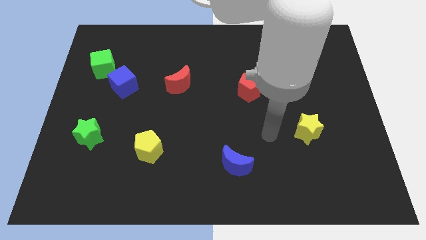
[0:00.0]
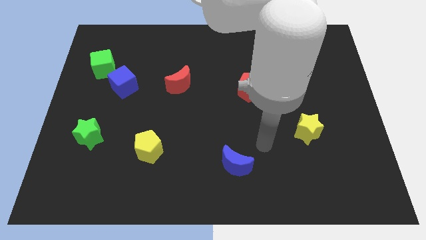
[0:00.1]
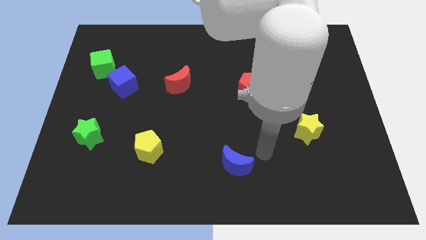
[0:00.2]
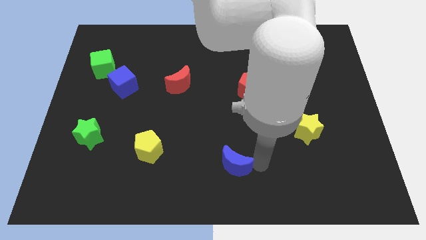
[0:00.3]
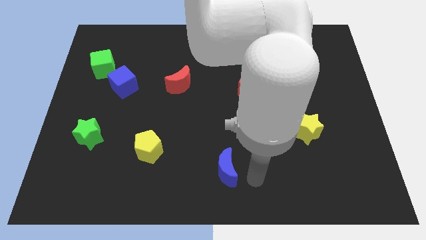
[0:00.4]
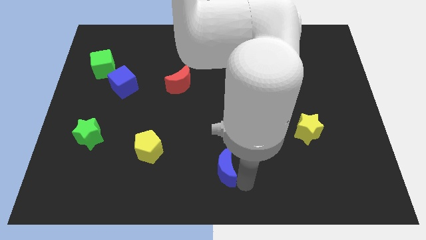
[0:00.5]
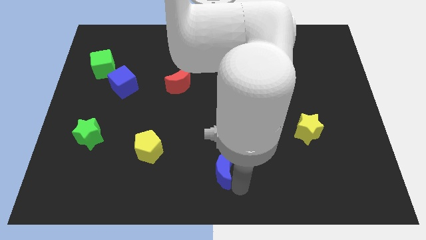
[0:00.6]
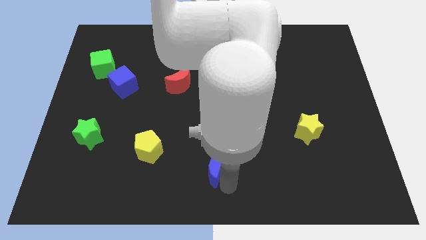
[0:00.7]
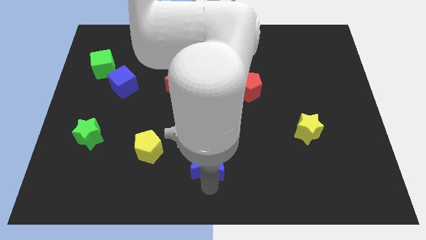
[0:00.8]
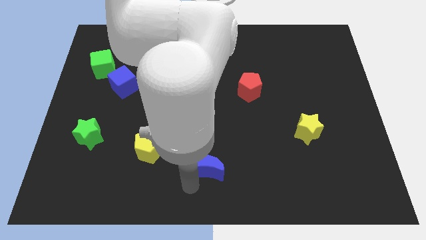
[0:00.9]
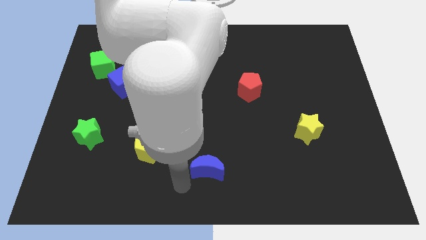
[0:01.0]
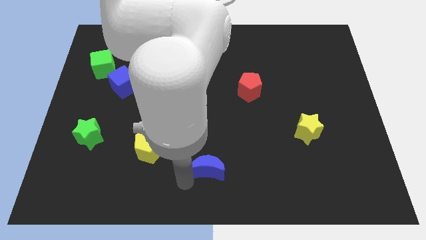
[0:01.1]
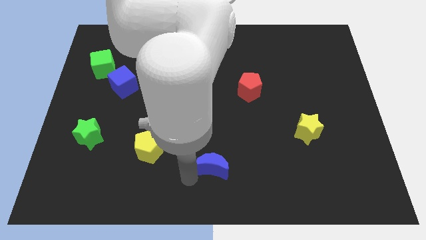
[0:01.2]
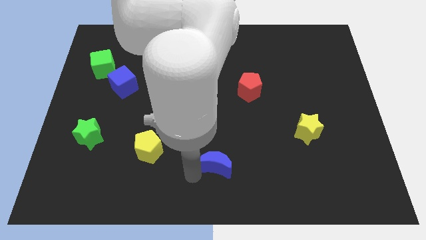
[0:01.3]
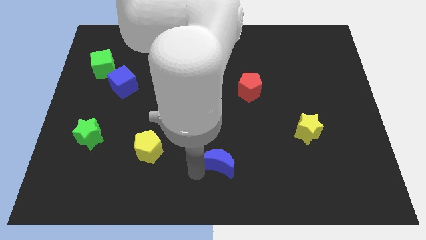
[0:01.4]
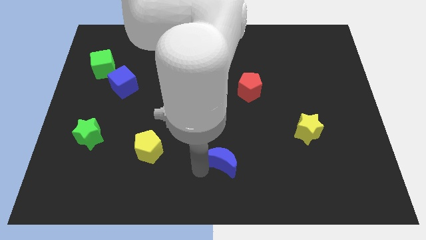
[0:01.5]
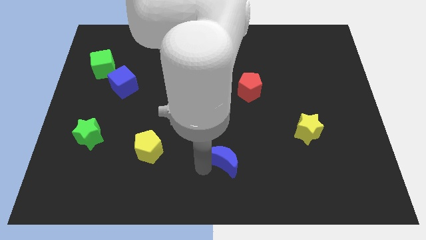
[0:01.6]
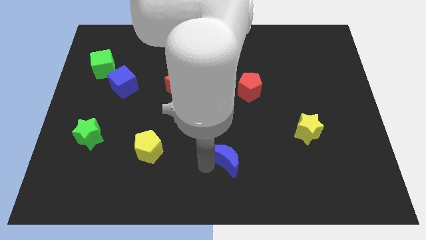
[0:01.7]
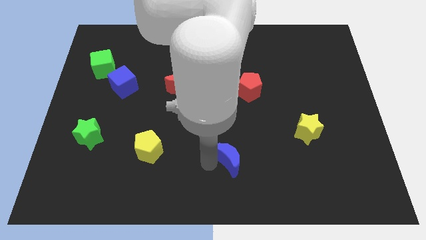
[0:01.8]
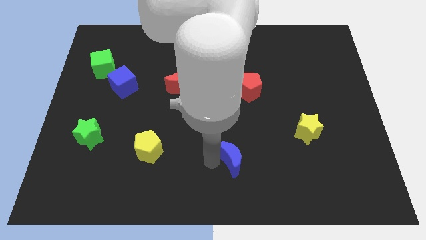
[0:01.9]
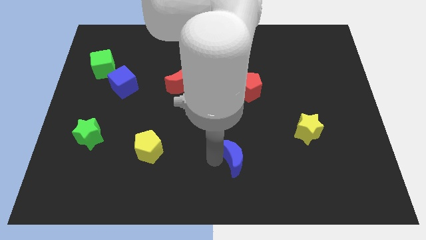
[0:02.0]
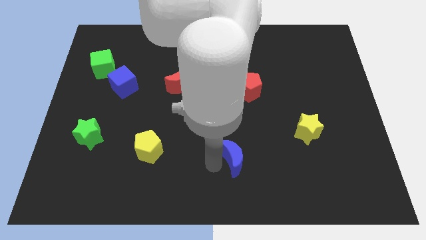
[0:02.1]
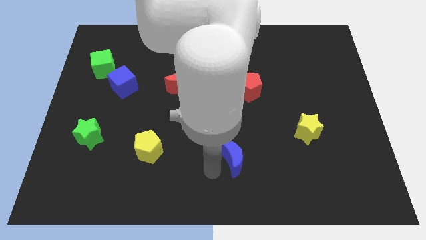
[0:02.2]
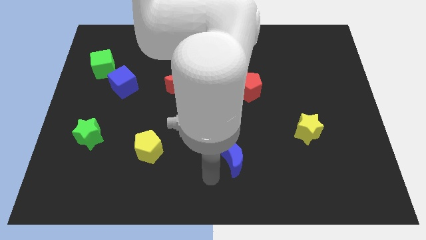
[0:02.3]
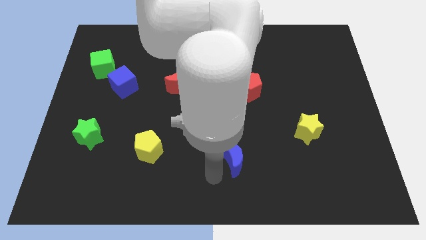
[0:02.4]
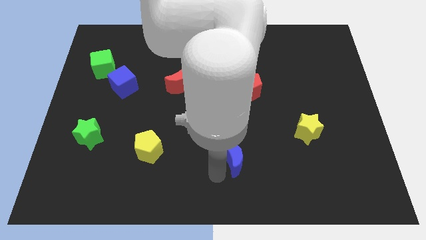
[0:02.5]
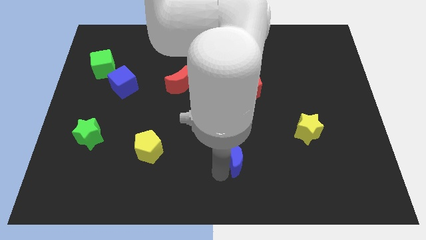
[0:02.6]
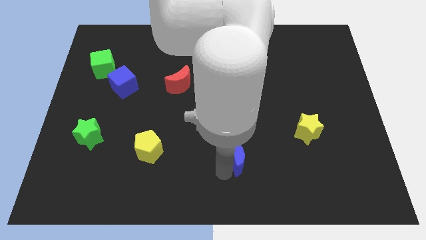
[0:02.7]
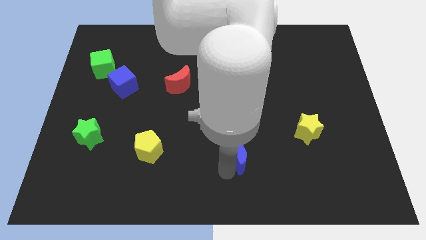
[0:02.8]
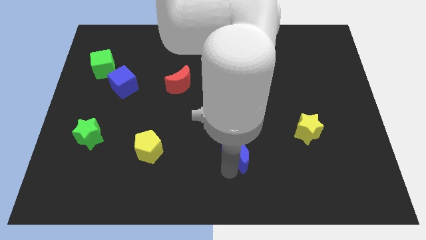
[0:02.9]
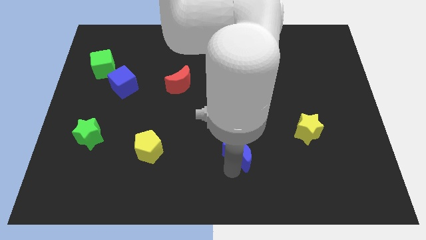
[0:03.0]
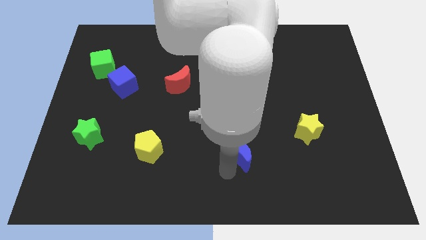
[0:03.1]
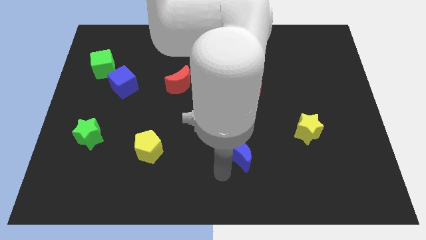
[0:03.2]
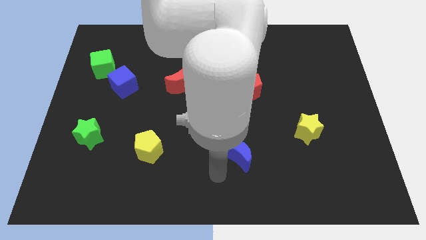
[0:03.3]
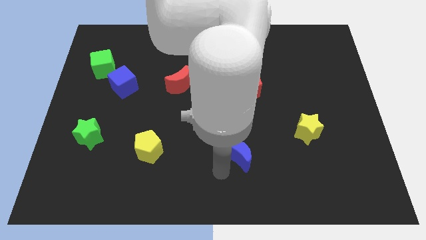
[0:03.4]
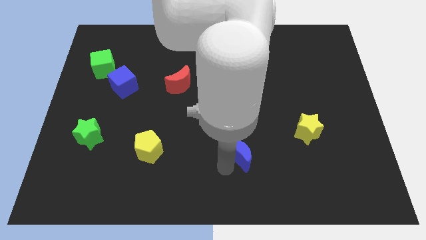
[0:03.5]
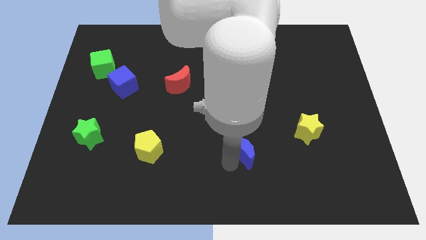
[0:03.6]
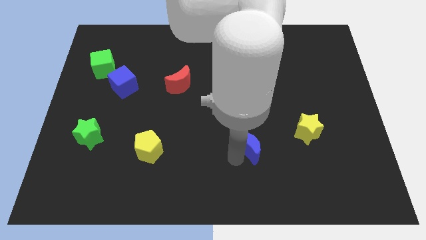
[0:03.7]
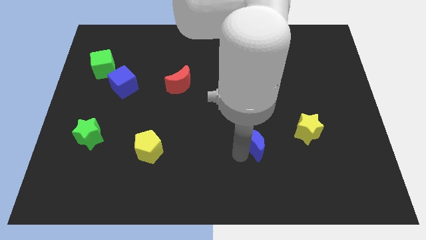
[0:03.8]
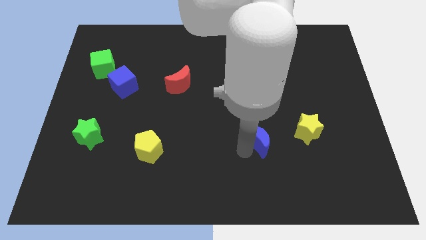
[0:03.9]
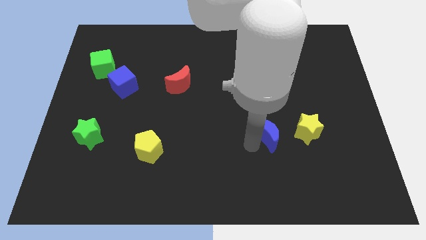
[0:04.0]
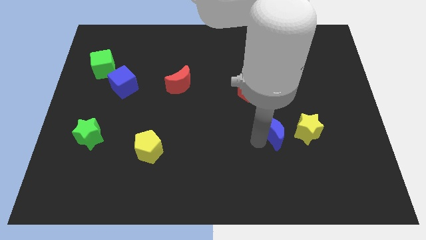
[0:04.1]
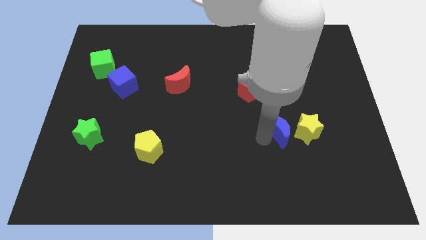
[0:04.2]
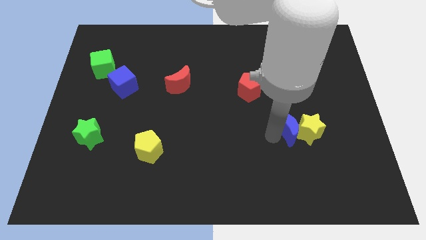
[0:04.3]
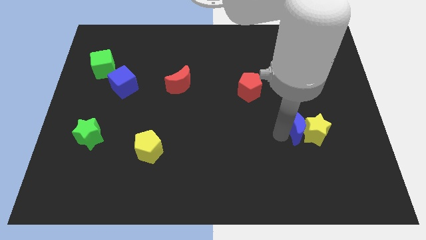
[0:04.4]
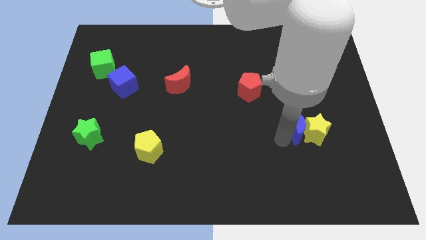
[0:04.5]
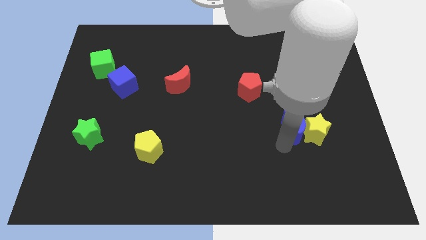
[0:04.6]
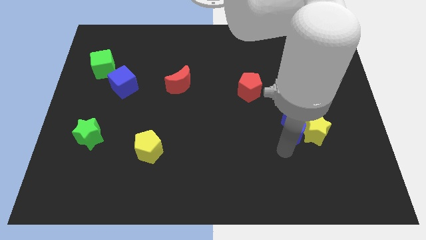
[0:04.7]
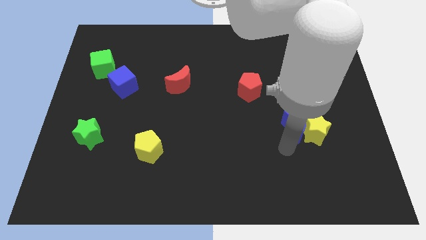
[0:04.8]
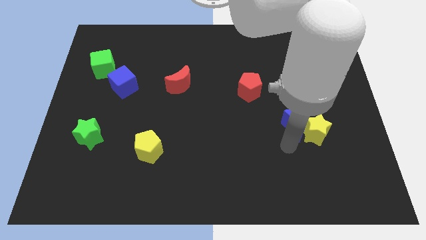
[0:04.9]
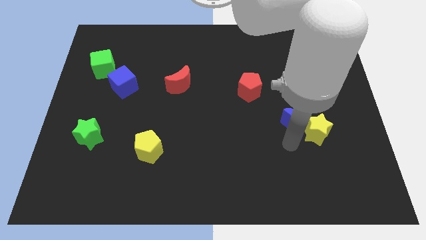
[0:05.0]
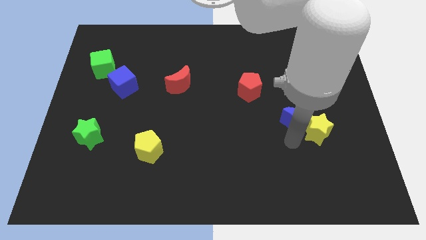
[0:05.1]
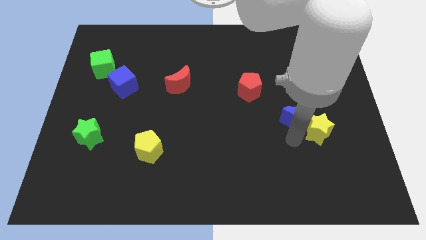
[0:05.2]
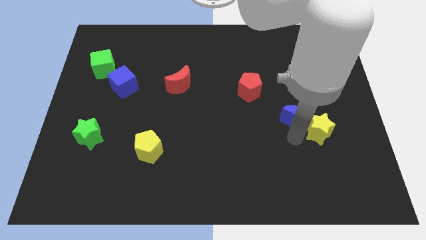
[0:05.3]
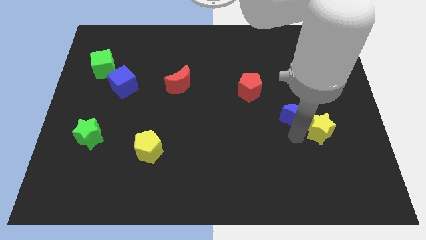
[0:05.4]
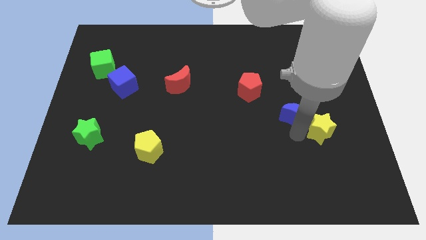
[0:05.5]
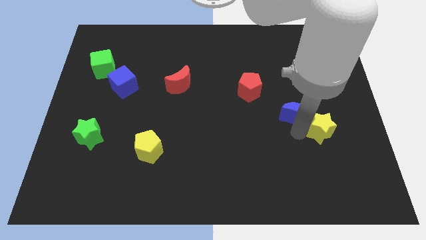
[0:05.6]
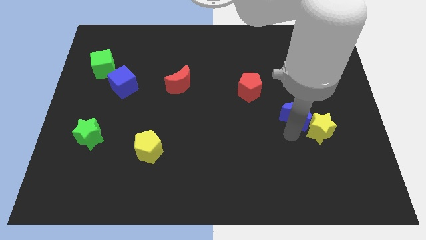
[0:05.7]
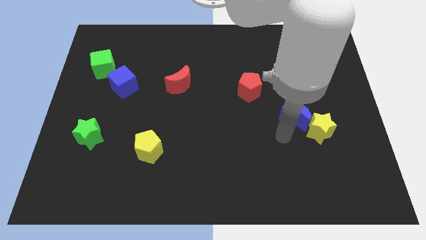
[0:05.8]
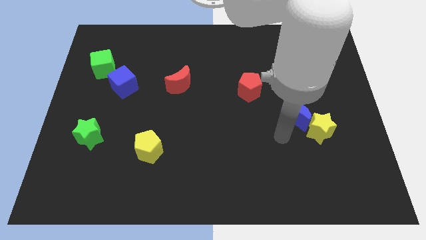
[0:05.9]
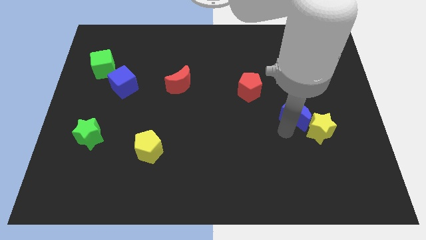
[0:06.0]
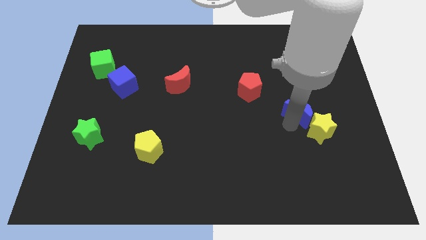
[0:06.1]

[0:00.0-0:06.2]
move the blue moon up and then right

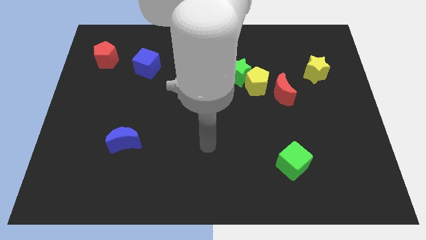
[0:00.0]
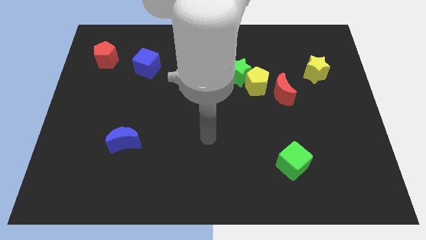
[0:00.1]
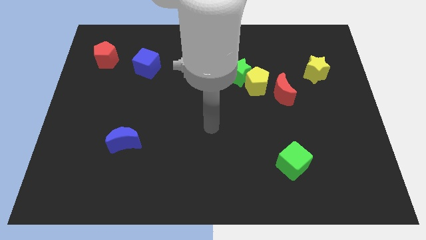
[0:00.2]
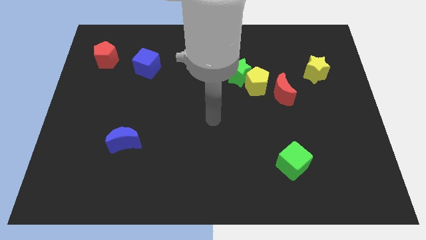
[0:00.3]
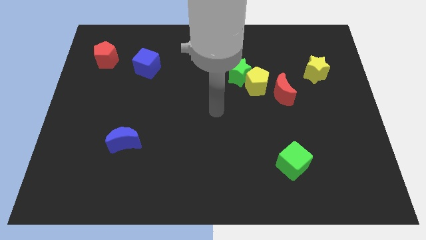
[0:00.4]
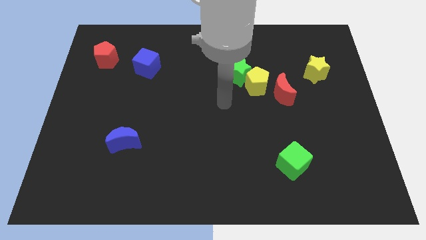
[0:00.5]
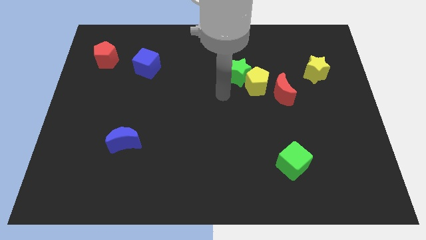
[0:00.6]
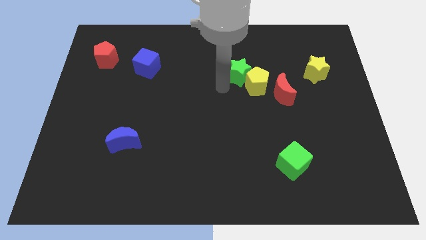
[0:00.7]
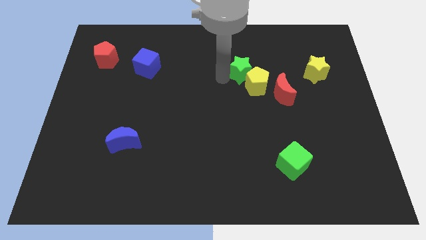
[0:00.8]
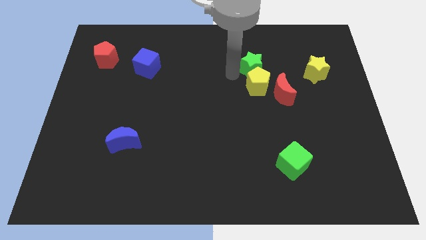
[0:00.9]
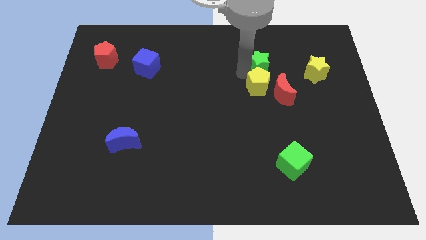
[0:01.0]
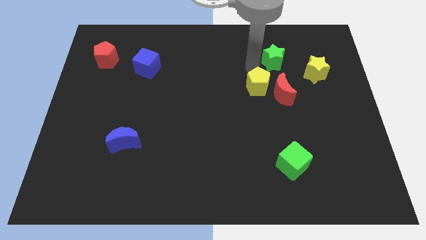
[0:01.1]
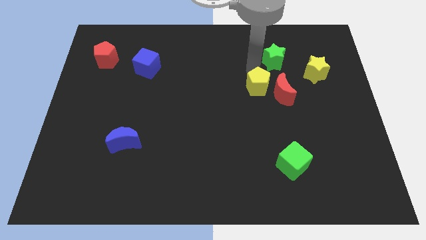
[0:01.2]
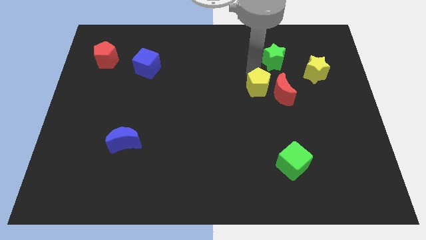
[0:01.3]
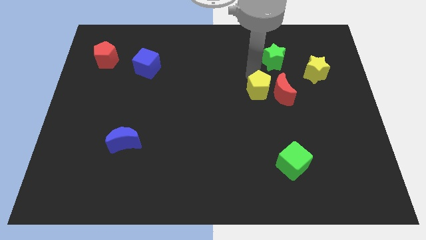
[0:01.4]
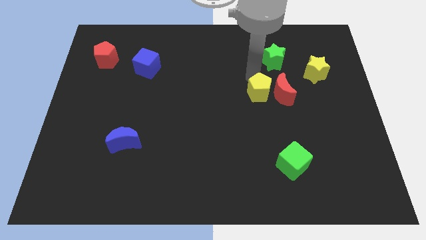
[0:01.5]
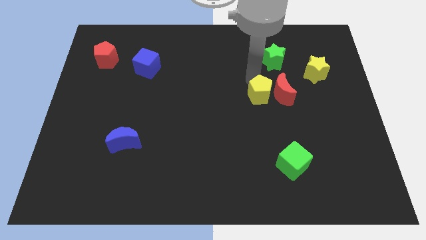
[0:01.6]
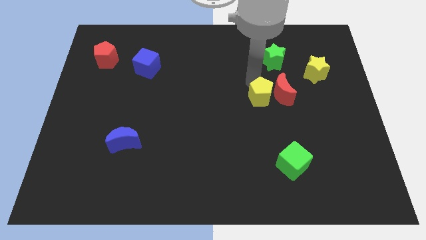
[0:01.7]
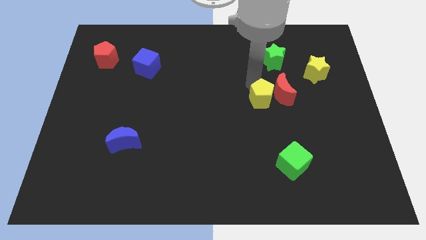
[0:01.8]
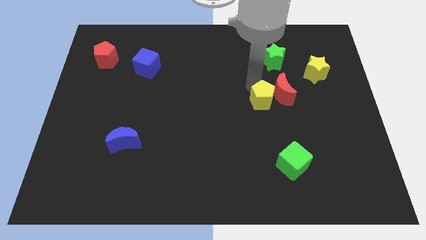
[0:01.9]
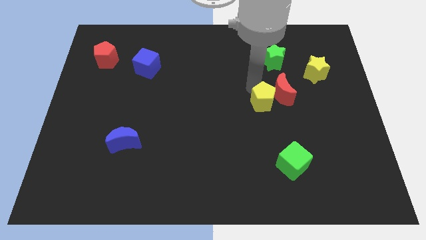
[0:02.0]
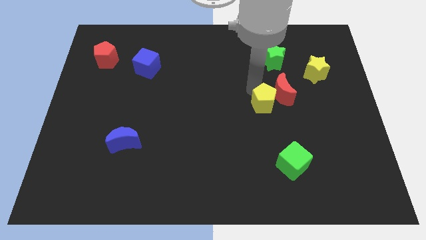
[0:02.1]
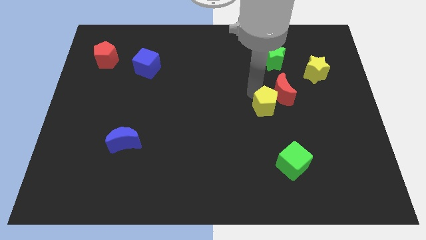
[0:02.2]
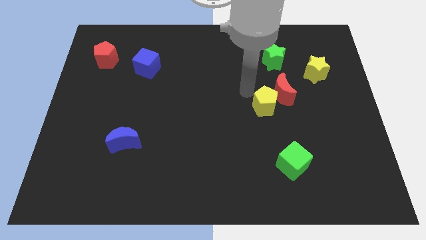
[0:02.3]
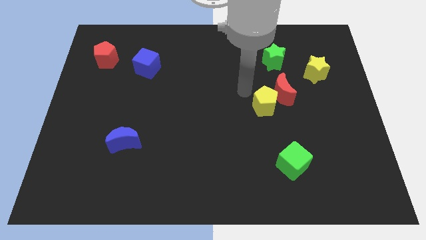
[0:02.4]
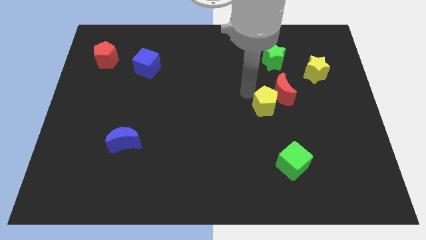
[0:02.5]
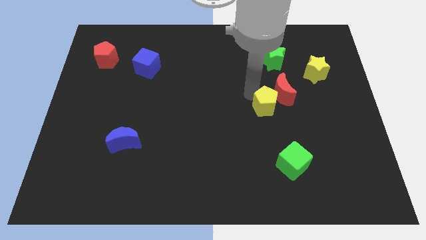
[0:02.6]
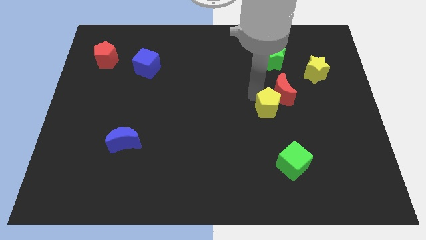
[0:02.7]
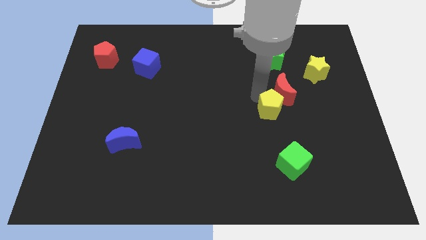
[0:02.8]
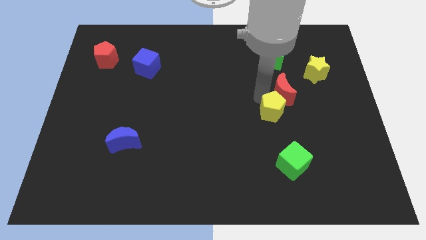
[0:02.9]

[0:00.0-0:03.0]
move the yellow pentagon down and then right slightly
